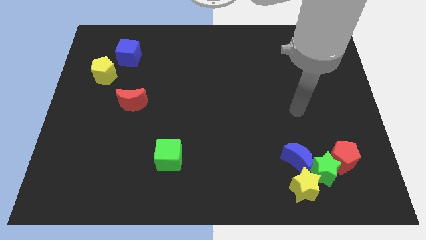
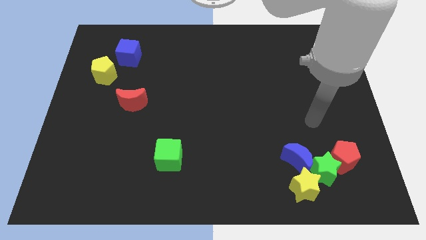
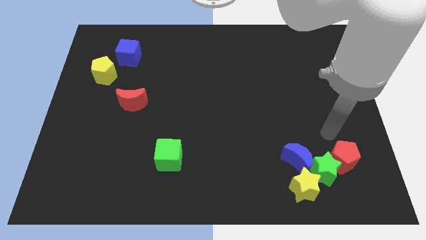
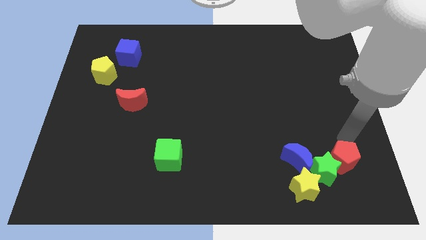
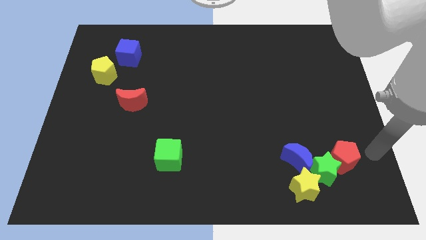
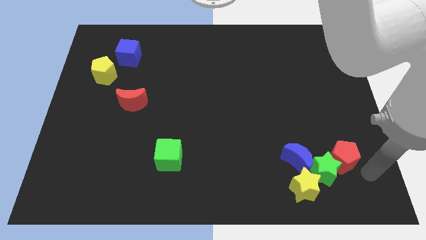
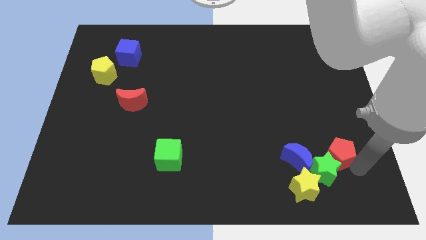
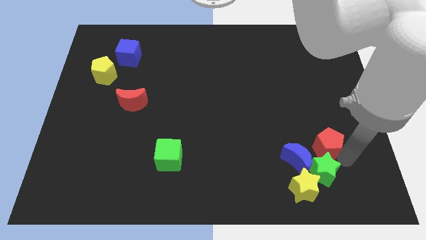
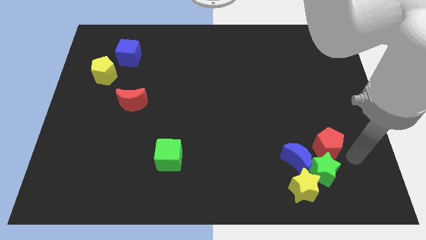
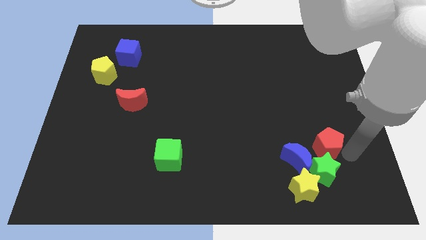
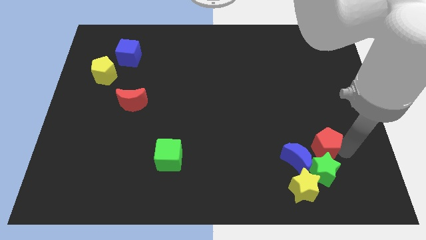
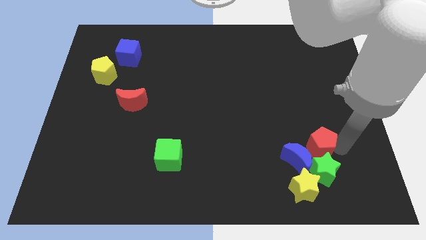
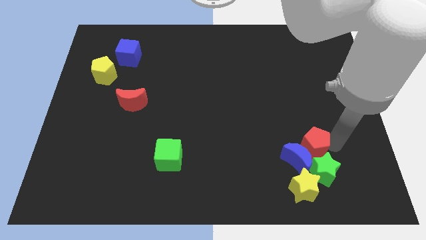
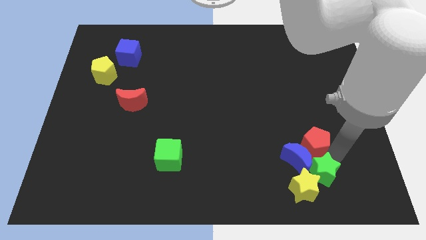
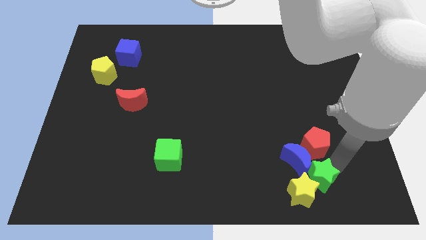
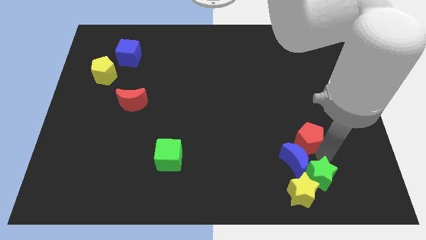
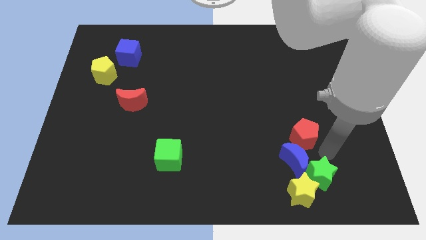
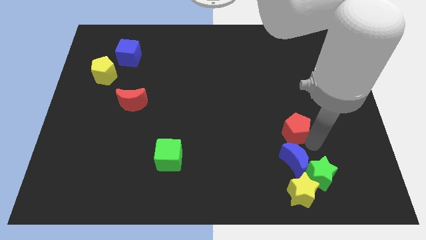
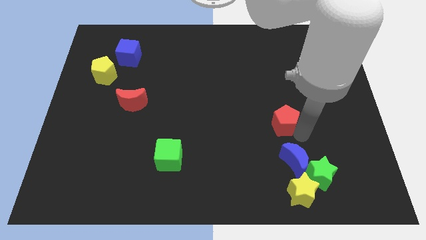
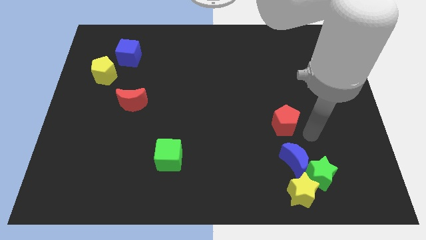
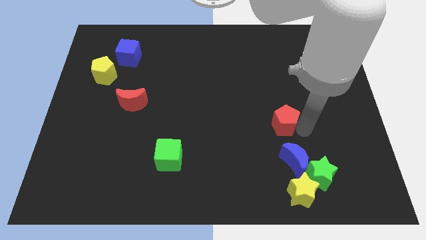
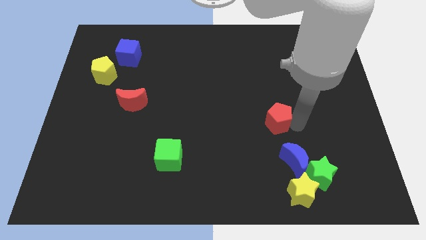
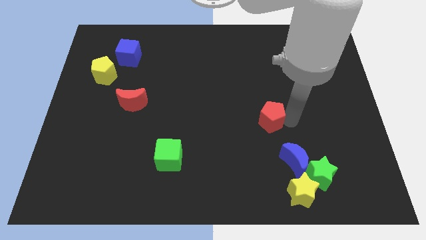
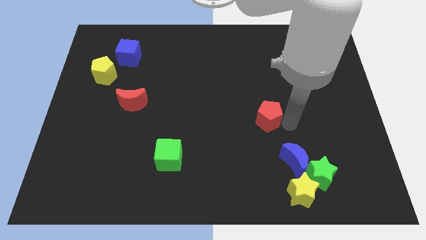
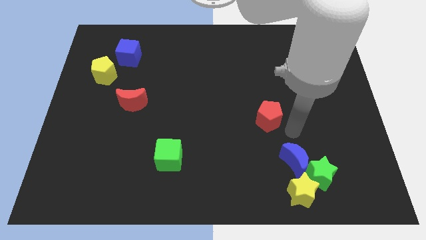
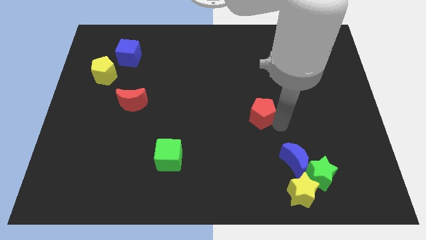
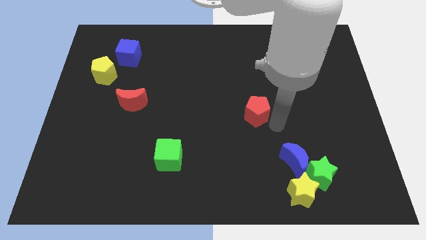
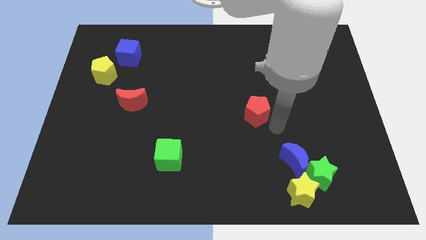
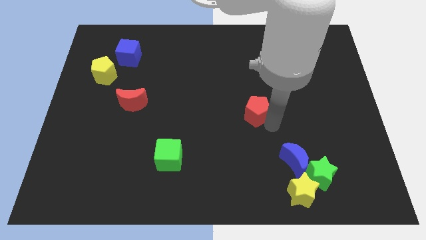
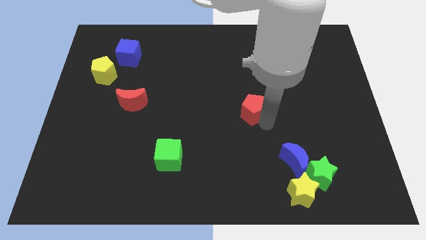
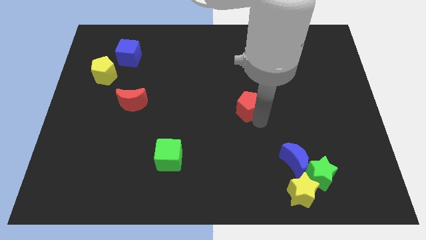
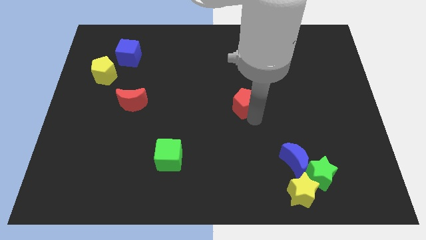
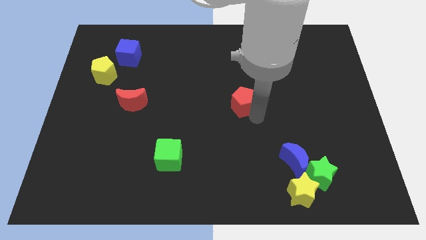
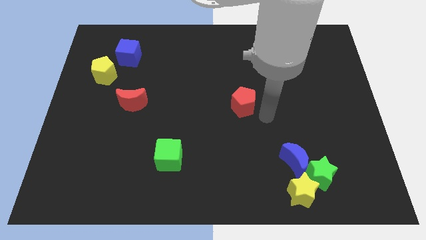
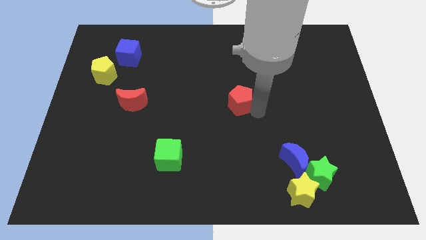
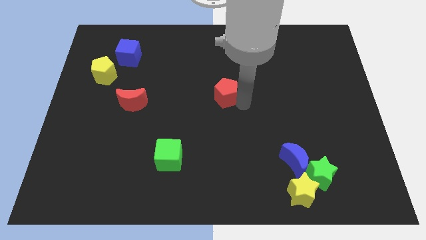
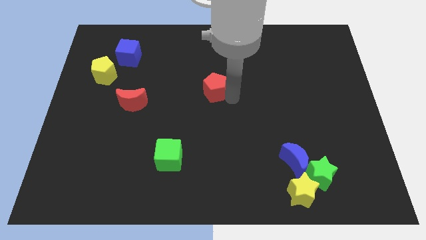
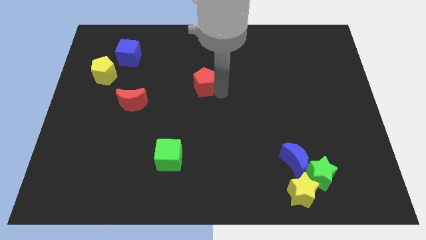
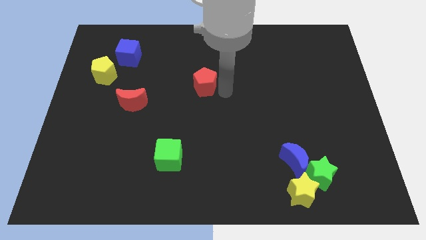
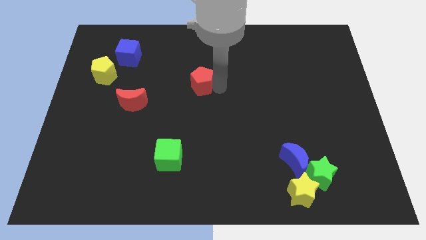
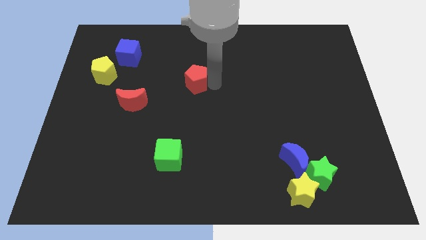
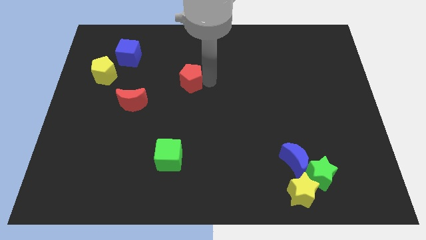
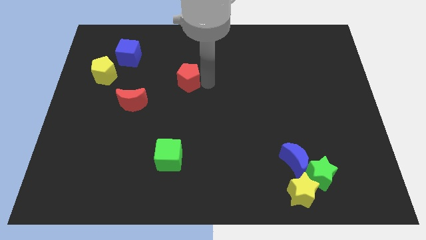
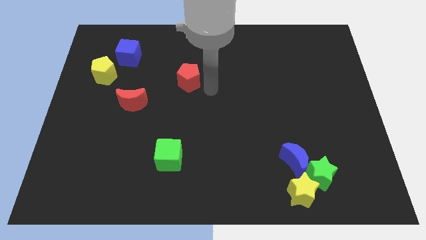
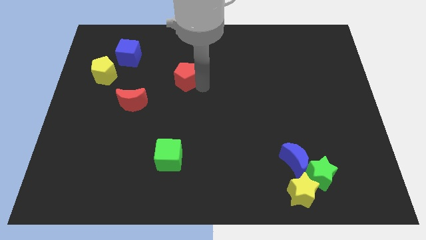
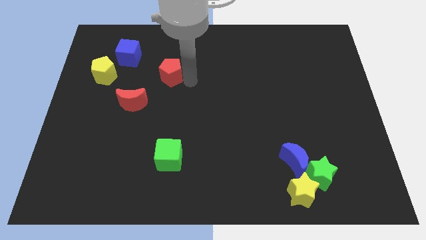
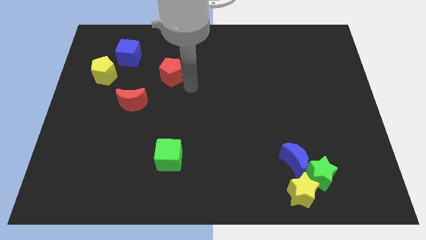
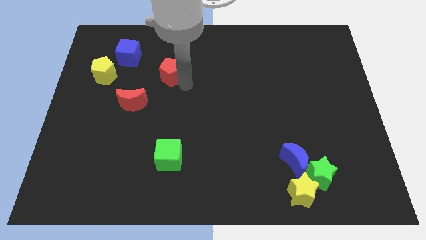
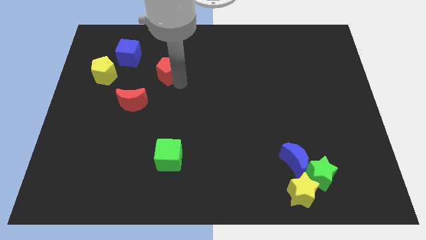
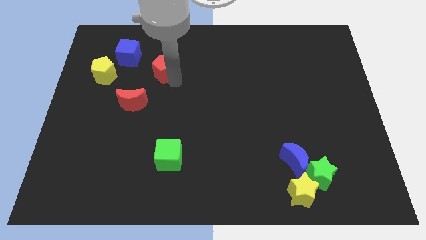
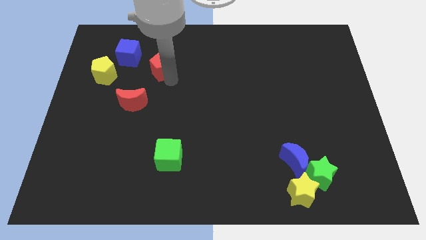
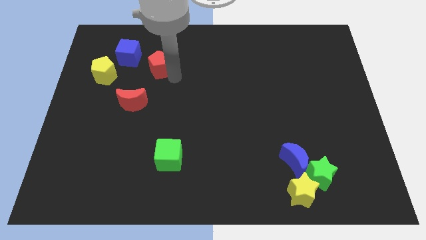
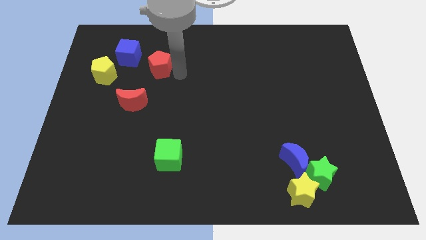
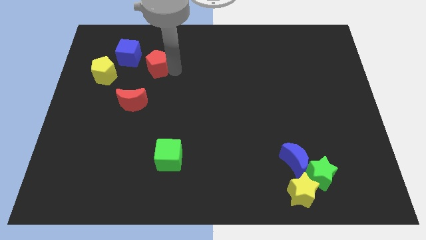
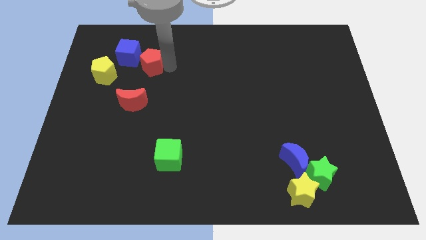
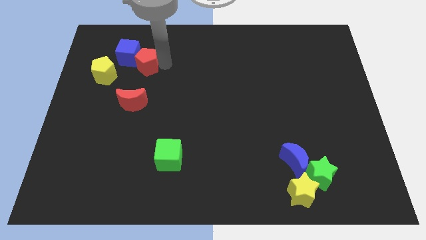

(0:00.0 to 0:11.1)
slide the red pentagon close to the blue cube

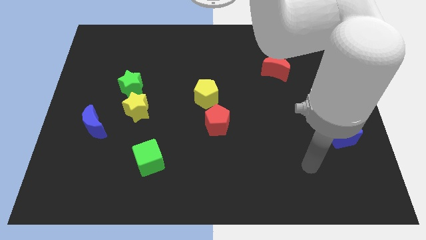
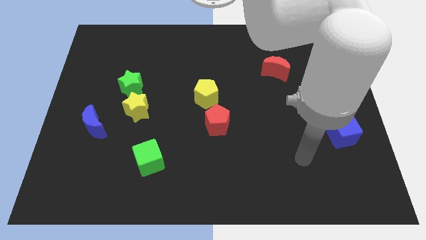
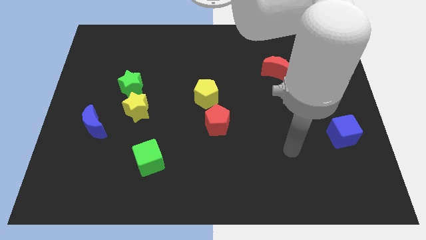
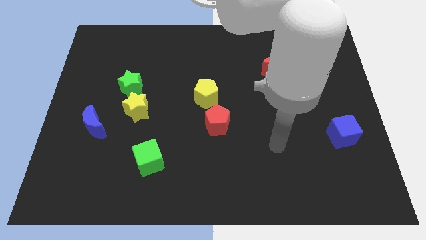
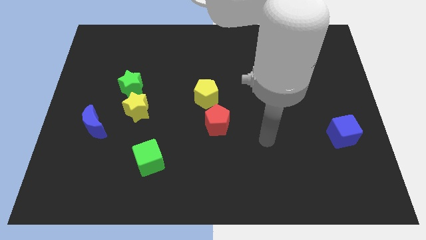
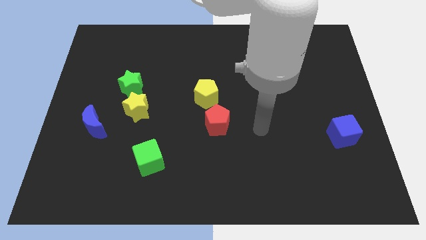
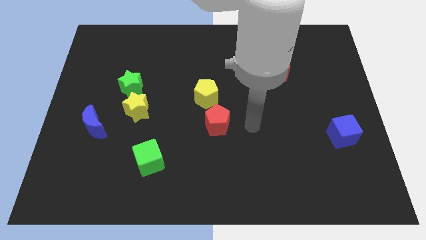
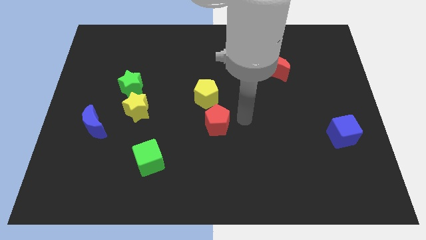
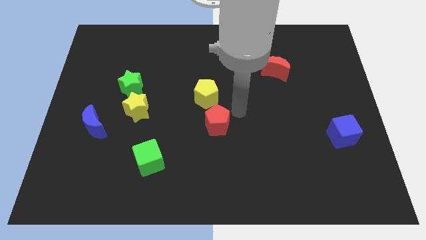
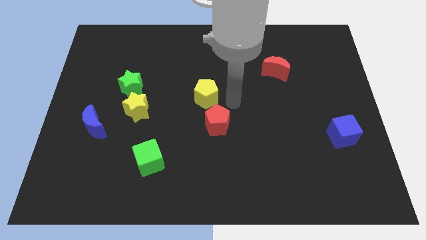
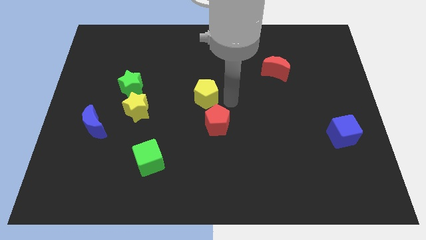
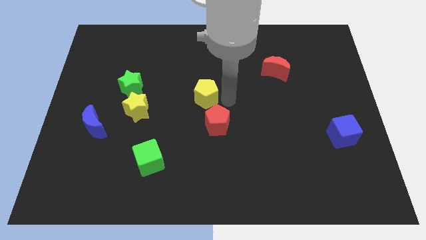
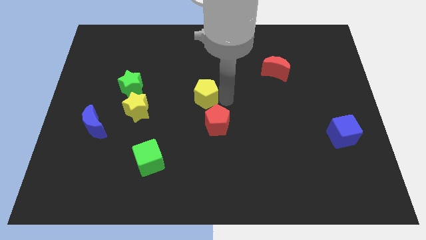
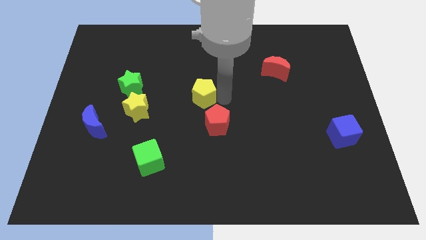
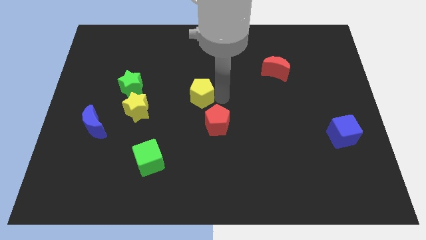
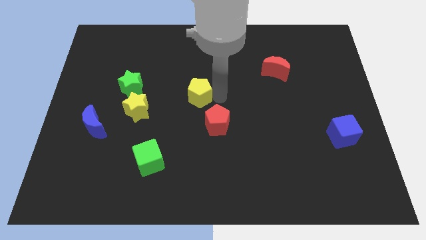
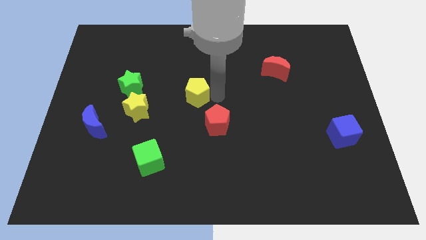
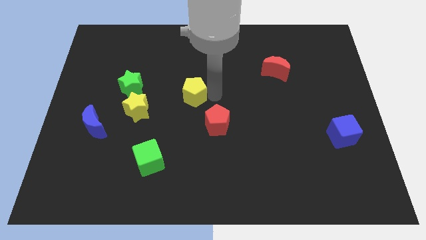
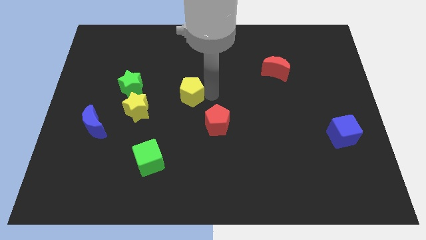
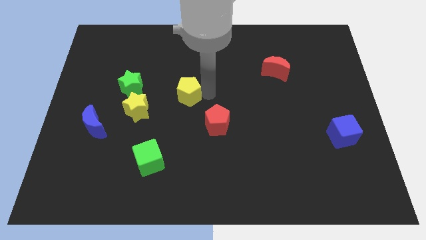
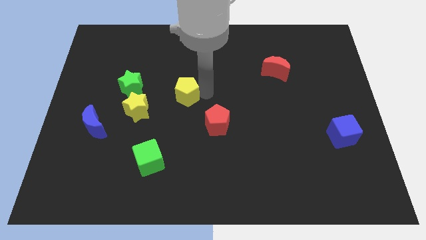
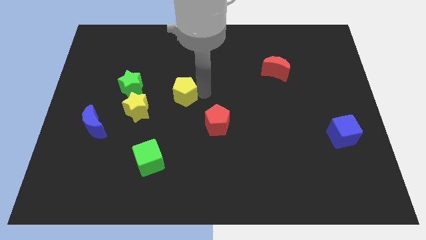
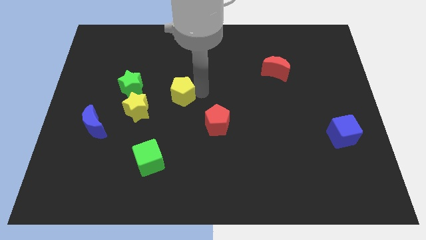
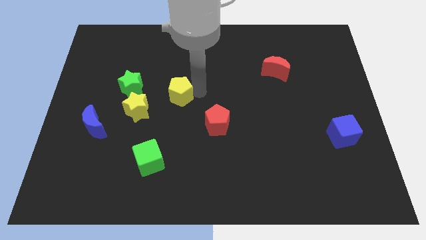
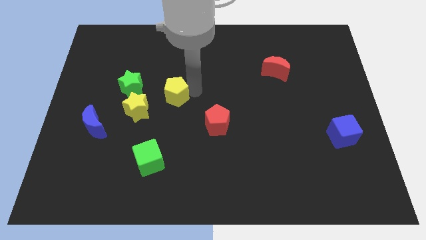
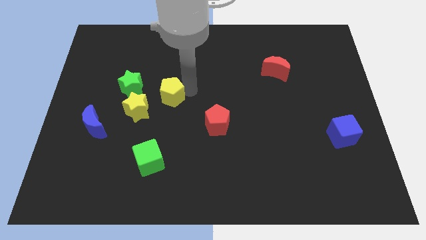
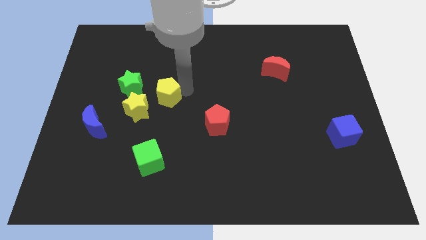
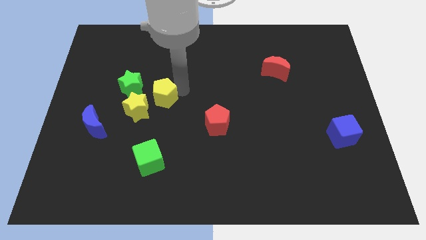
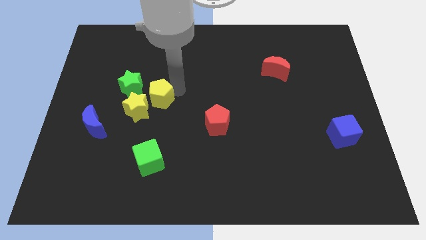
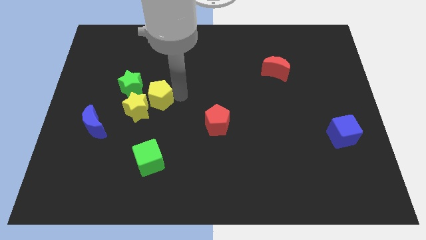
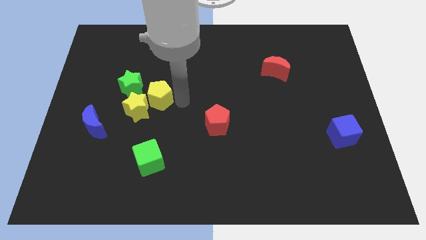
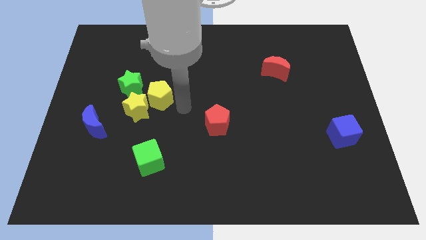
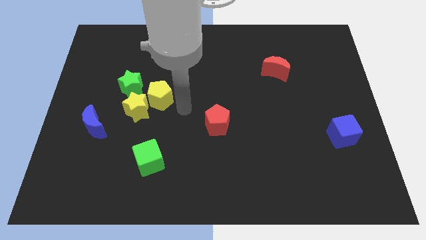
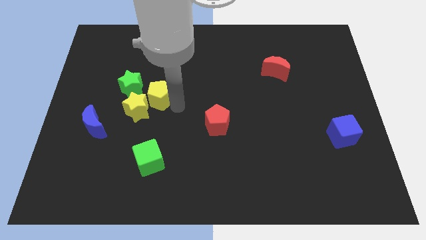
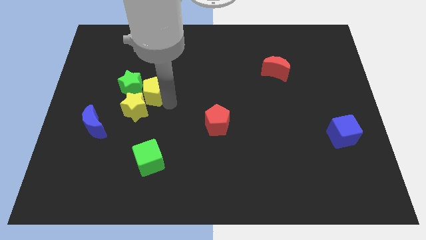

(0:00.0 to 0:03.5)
move the yellow pentagon to the green star
